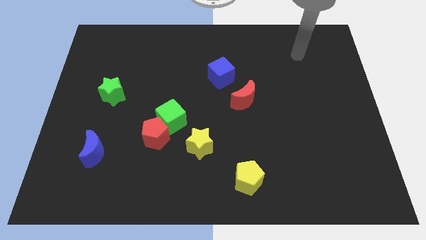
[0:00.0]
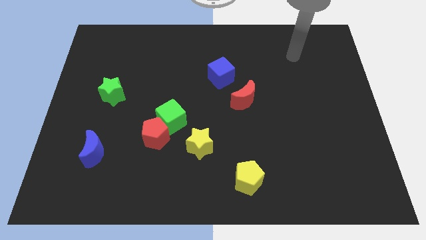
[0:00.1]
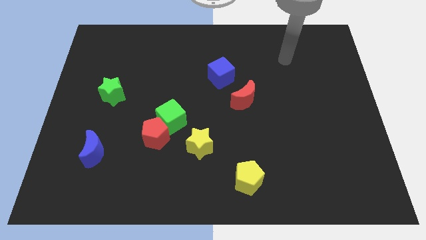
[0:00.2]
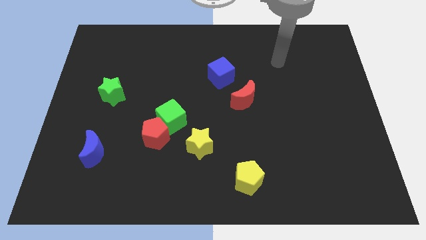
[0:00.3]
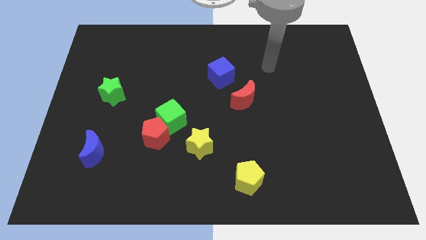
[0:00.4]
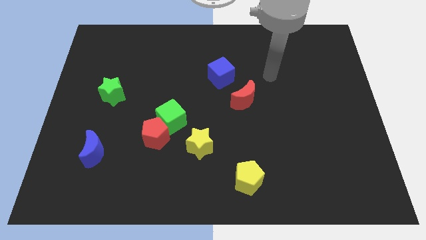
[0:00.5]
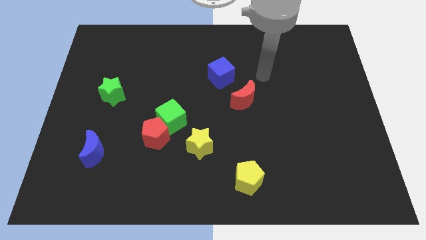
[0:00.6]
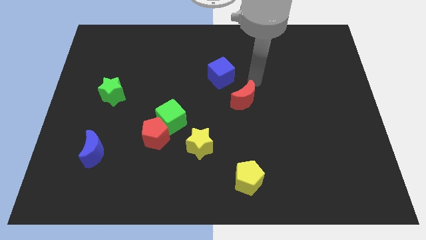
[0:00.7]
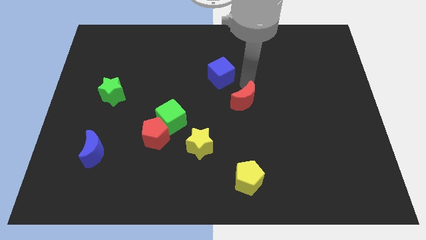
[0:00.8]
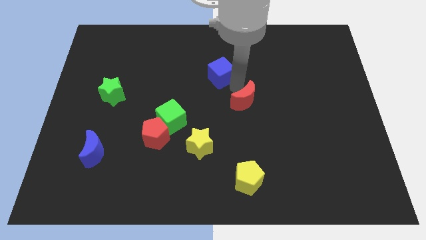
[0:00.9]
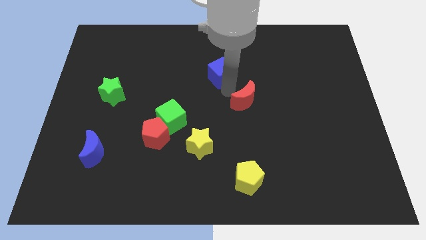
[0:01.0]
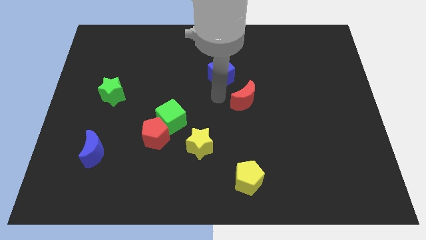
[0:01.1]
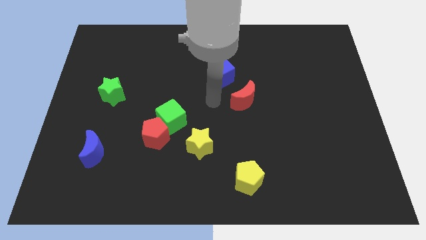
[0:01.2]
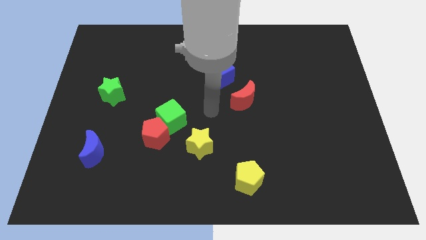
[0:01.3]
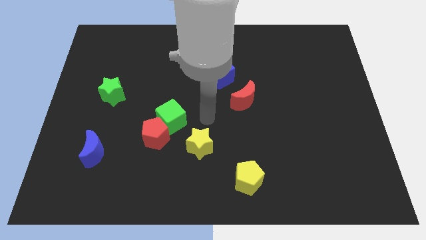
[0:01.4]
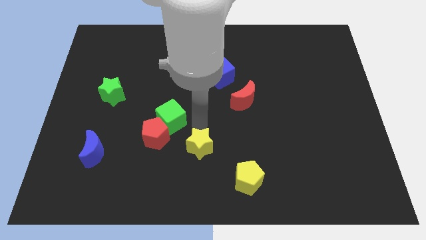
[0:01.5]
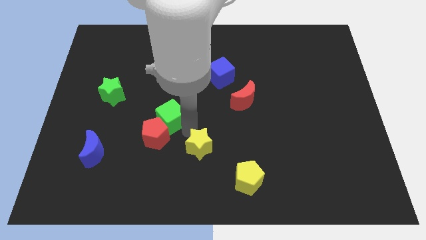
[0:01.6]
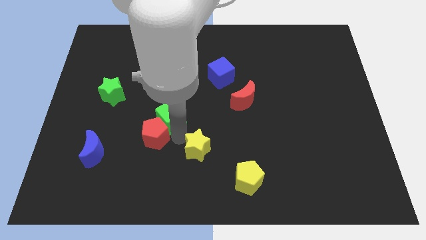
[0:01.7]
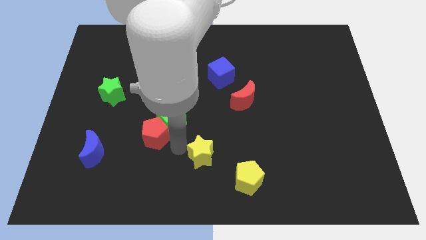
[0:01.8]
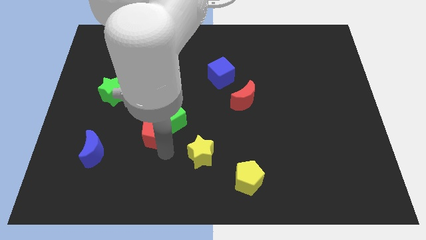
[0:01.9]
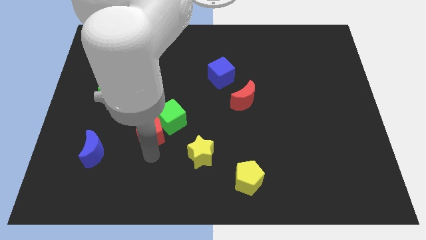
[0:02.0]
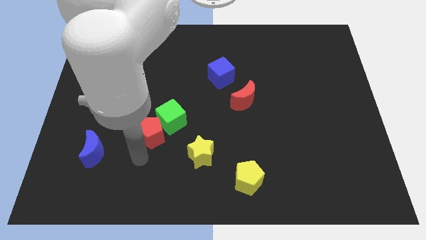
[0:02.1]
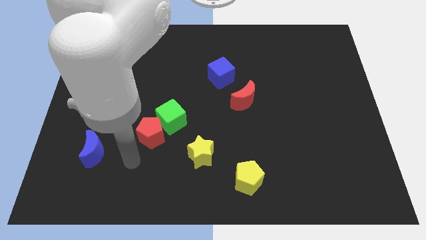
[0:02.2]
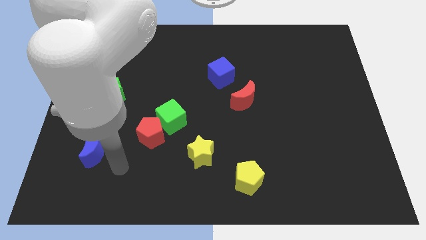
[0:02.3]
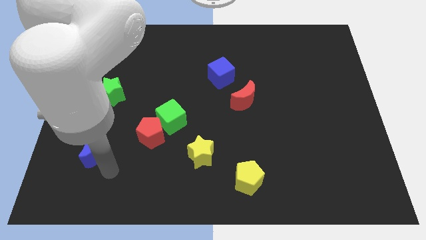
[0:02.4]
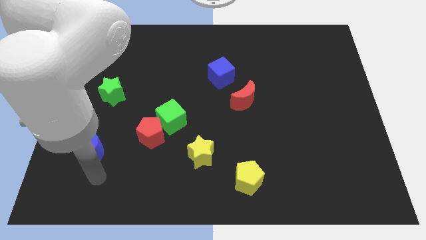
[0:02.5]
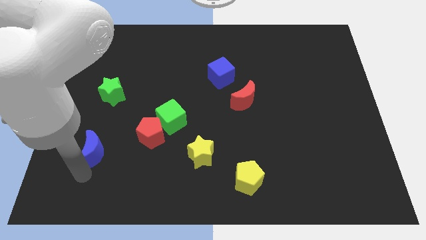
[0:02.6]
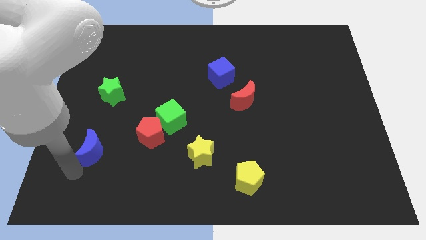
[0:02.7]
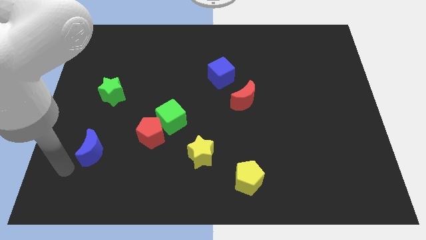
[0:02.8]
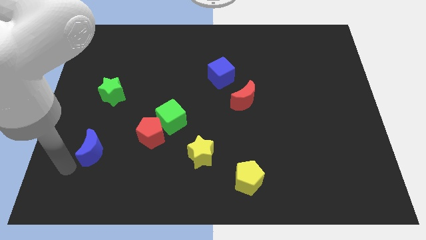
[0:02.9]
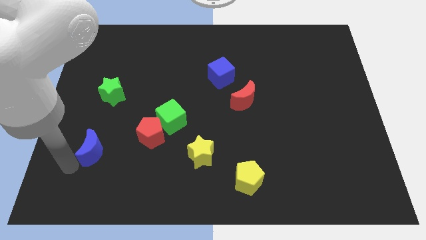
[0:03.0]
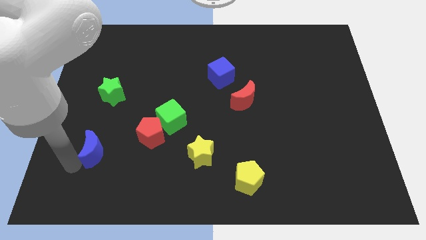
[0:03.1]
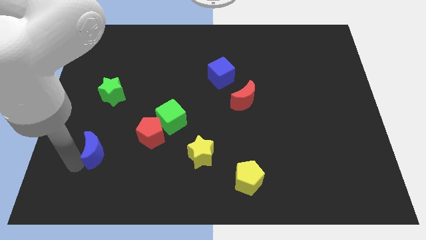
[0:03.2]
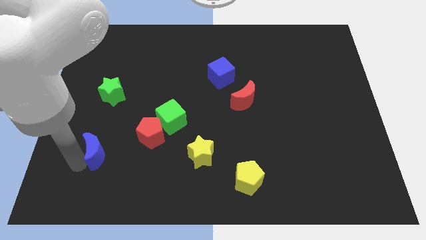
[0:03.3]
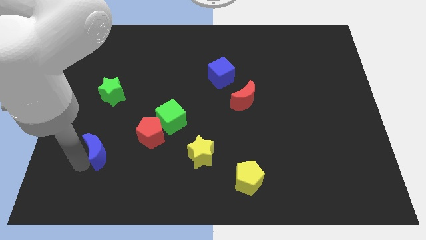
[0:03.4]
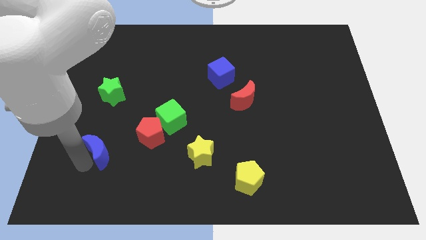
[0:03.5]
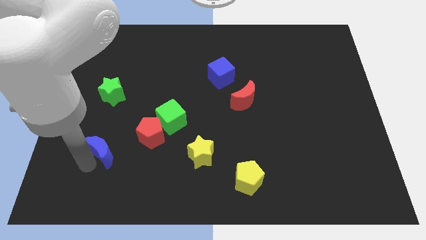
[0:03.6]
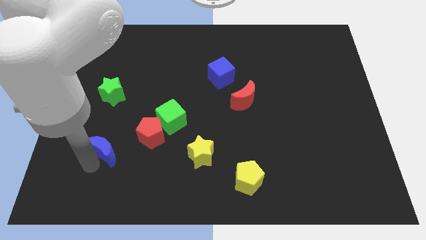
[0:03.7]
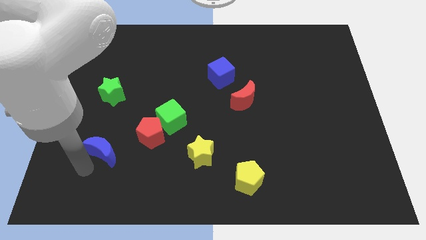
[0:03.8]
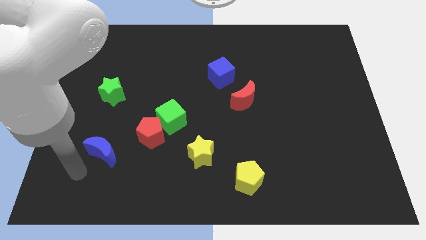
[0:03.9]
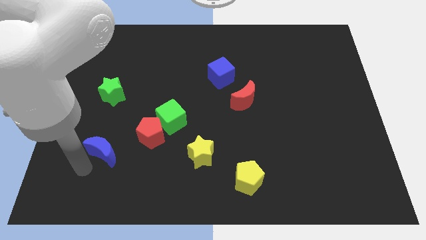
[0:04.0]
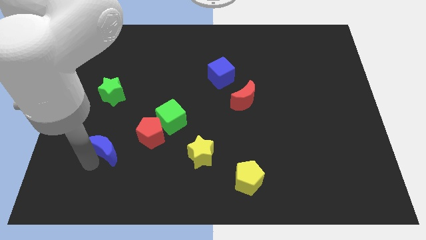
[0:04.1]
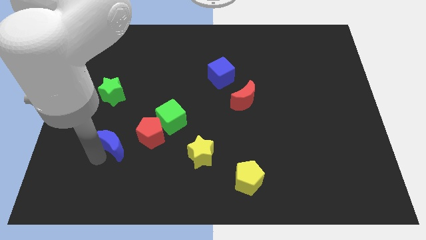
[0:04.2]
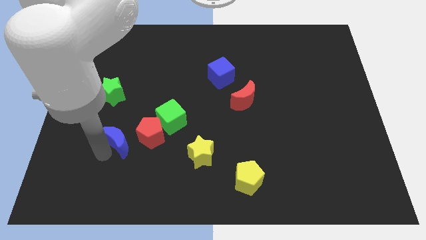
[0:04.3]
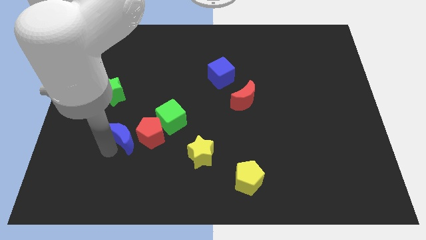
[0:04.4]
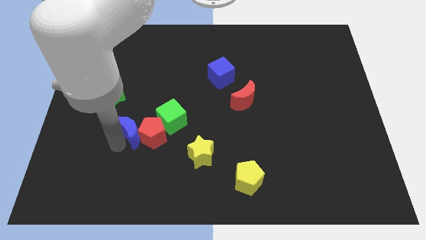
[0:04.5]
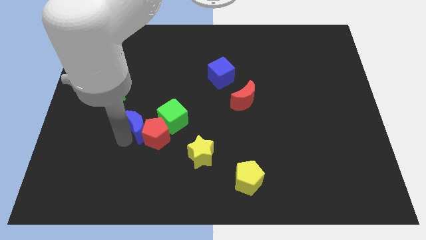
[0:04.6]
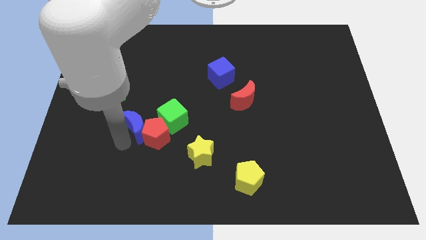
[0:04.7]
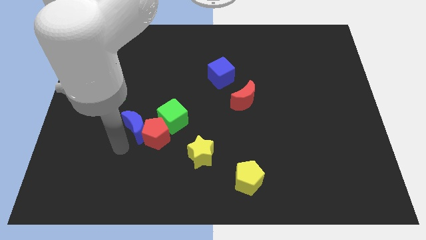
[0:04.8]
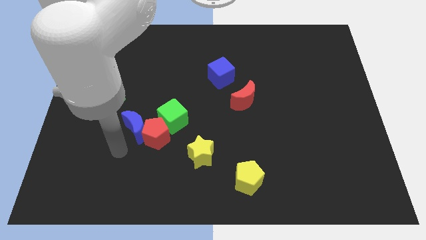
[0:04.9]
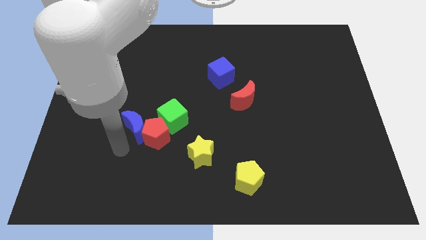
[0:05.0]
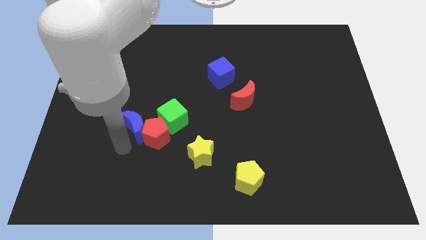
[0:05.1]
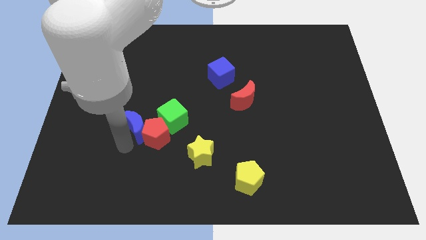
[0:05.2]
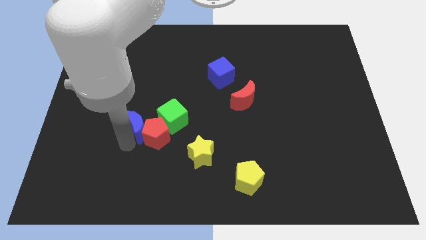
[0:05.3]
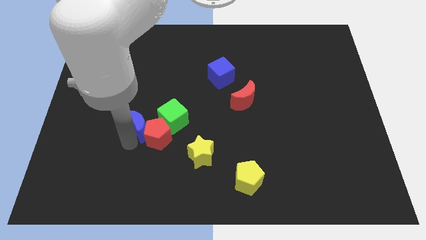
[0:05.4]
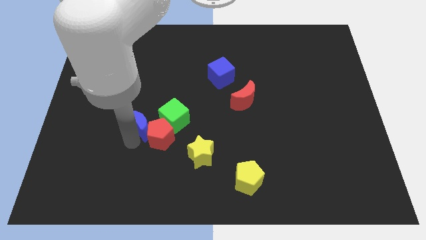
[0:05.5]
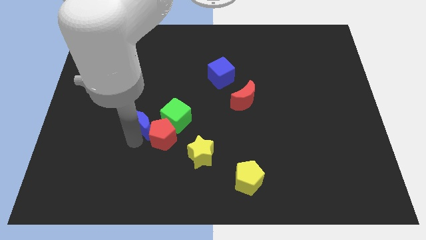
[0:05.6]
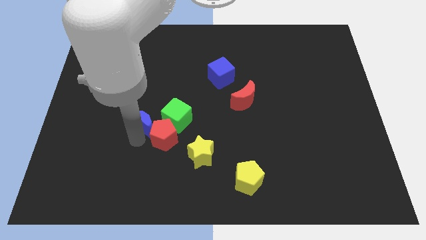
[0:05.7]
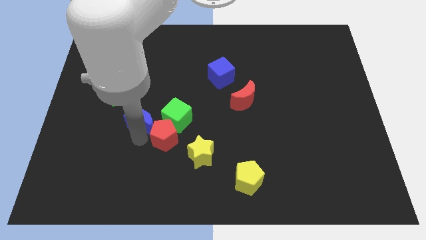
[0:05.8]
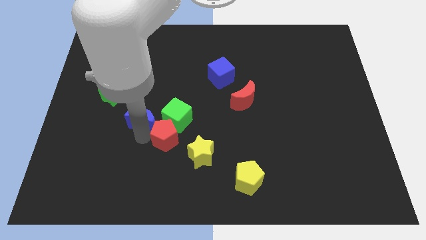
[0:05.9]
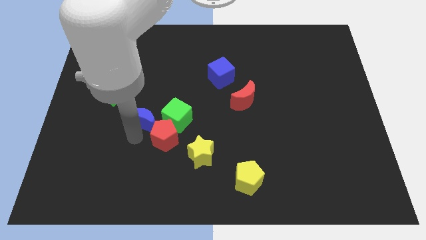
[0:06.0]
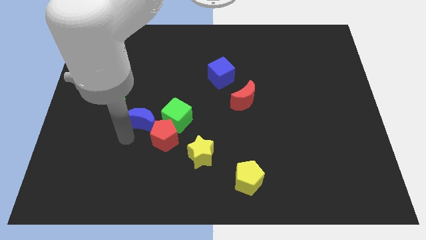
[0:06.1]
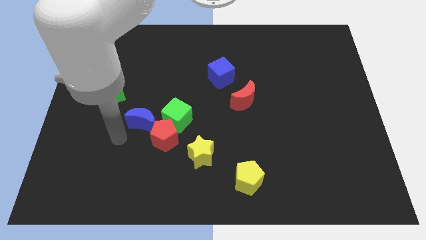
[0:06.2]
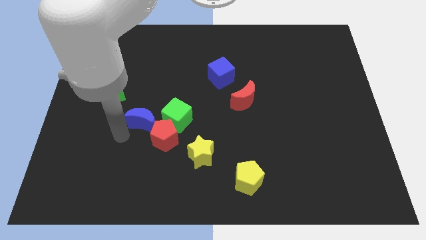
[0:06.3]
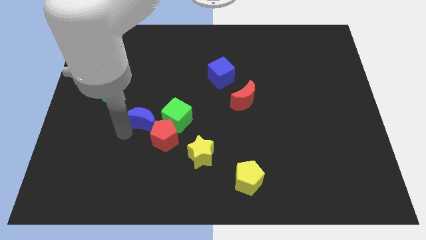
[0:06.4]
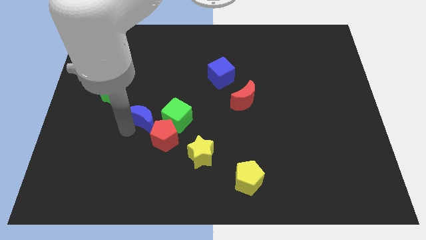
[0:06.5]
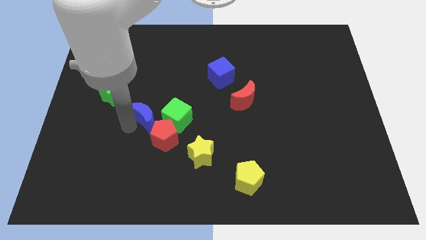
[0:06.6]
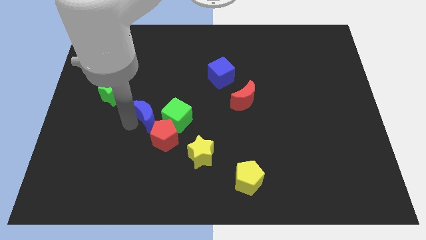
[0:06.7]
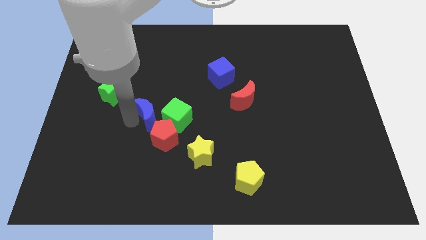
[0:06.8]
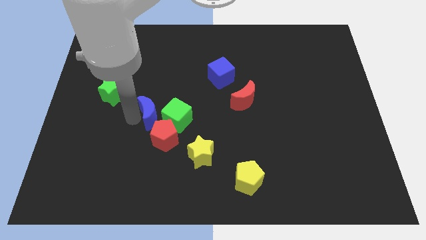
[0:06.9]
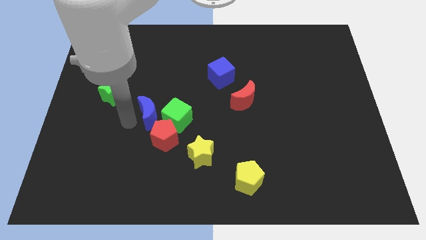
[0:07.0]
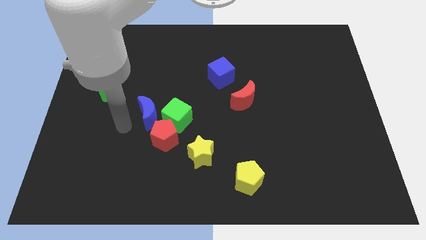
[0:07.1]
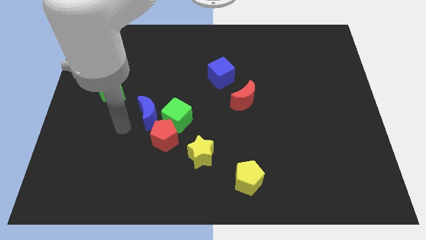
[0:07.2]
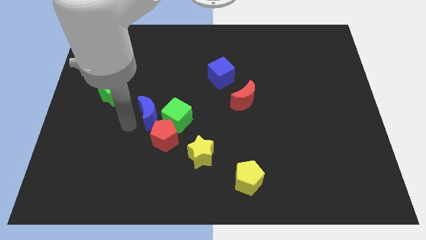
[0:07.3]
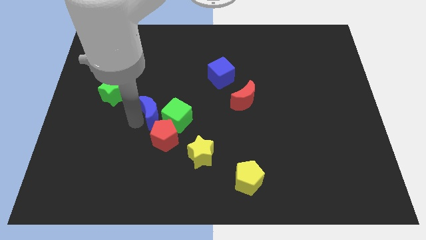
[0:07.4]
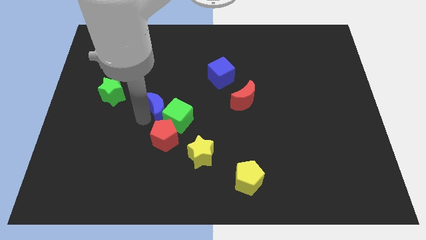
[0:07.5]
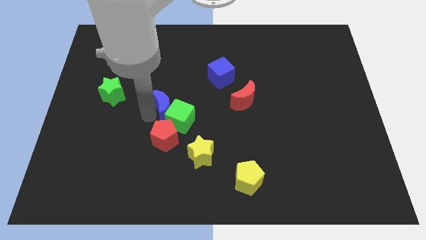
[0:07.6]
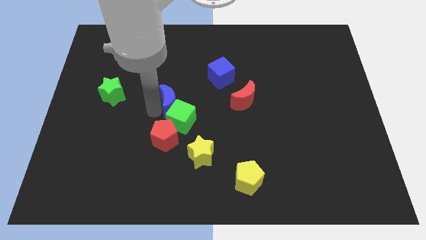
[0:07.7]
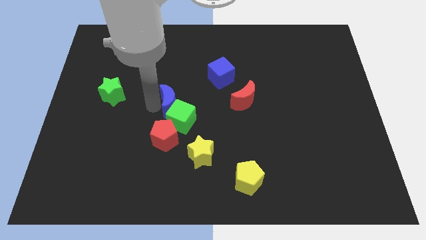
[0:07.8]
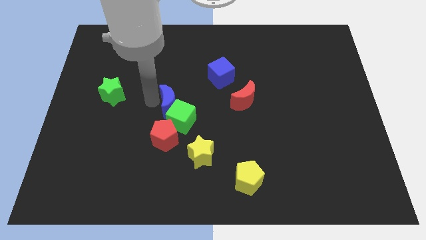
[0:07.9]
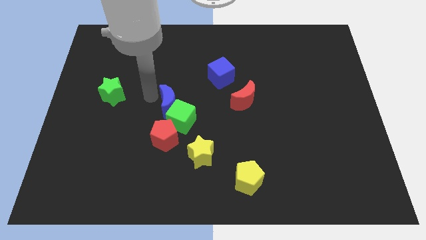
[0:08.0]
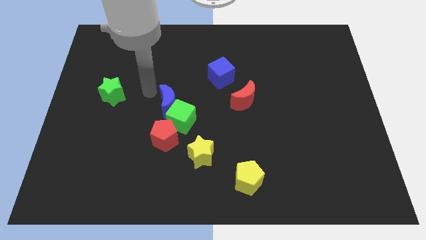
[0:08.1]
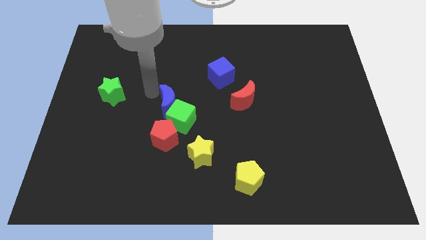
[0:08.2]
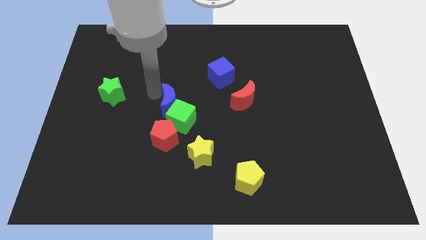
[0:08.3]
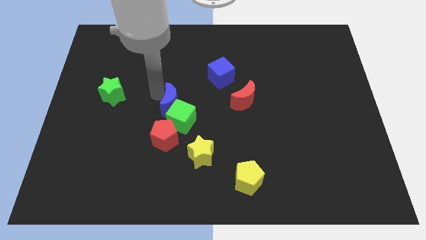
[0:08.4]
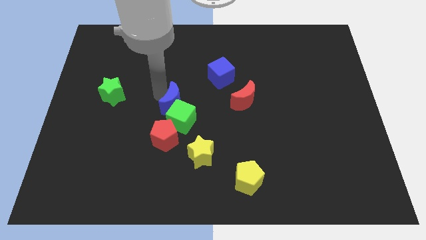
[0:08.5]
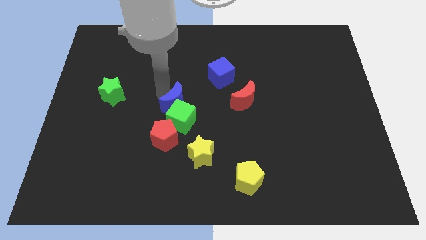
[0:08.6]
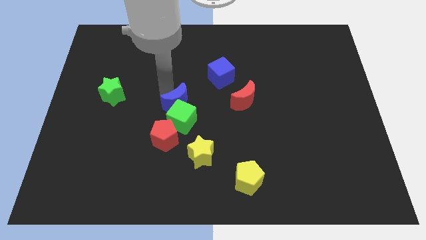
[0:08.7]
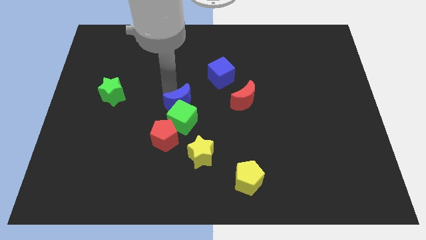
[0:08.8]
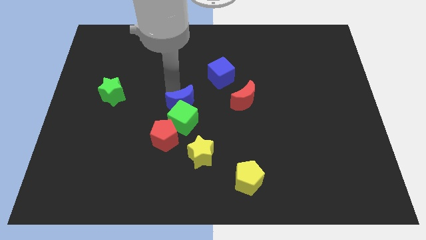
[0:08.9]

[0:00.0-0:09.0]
push the blue moon diagonally up and to the right of the red pentagon
